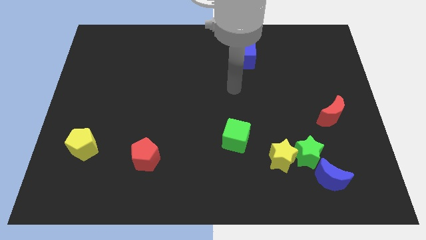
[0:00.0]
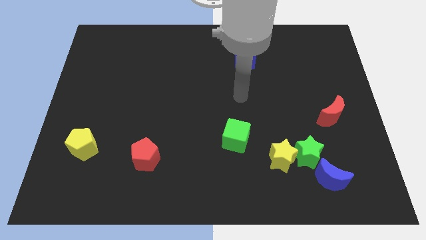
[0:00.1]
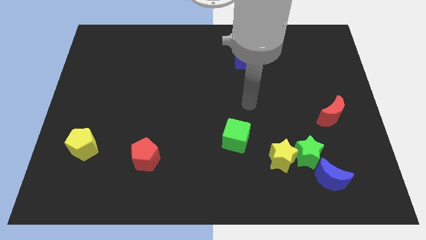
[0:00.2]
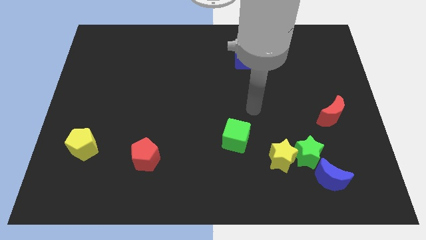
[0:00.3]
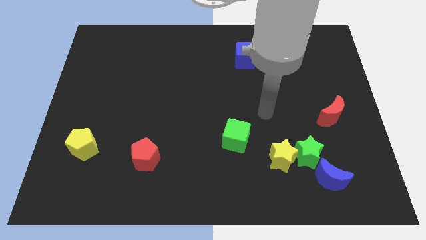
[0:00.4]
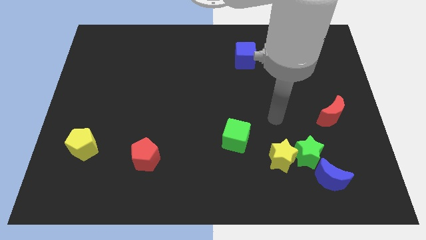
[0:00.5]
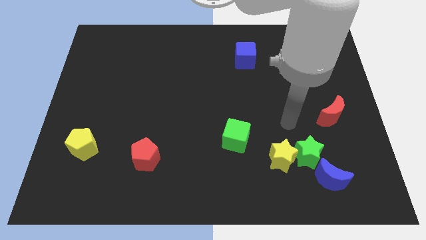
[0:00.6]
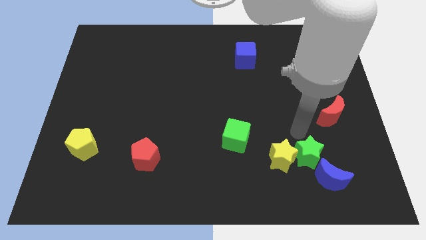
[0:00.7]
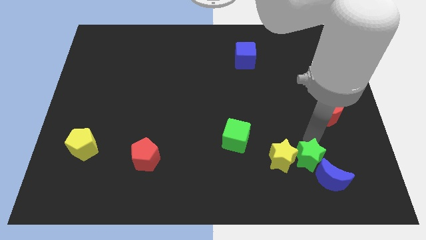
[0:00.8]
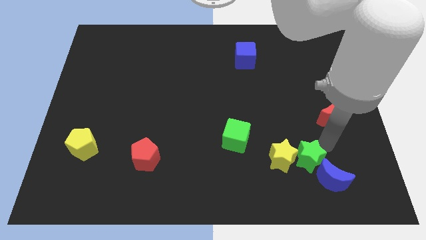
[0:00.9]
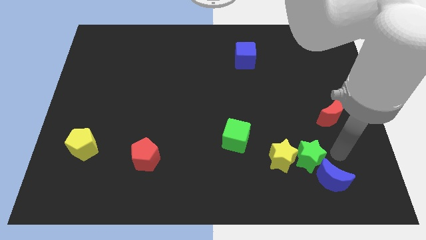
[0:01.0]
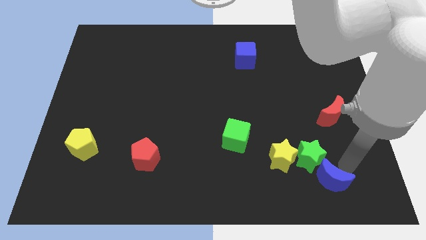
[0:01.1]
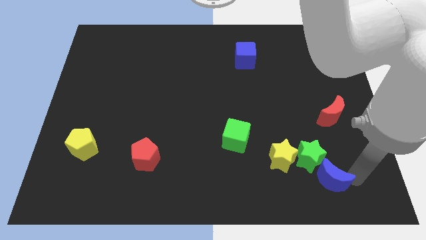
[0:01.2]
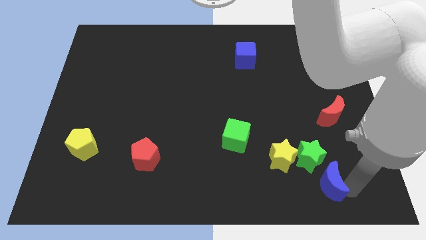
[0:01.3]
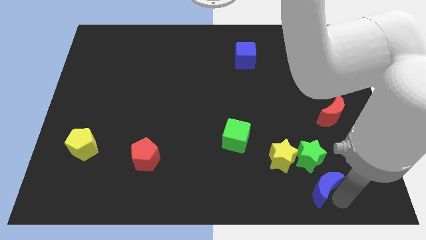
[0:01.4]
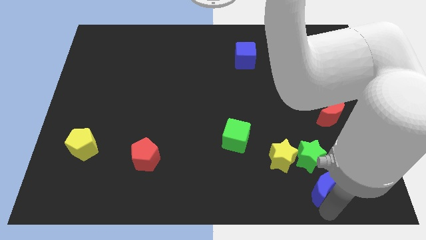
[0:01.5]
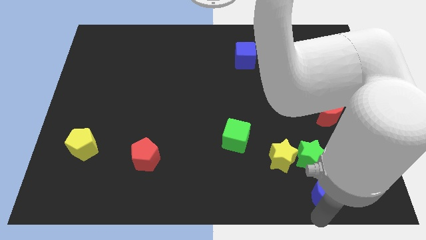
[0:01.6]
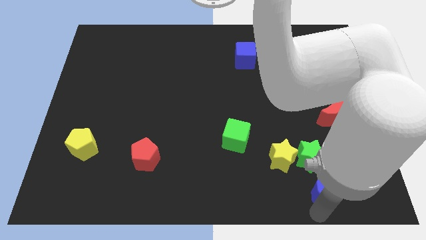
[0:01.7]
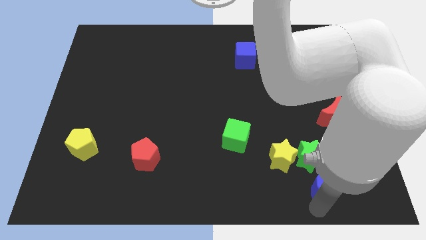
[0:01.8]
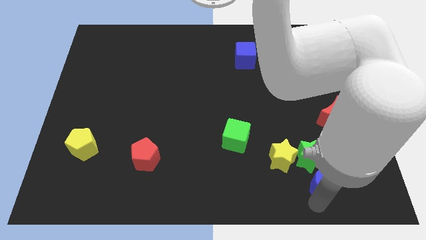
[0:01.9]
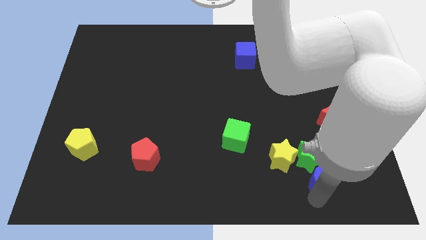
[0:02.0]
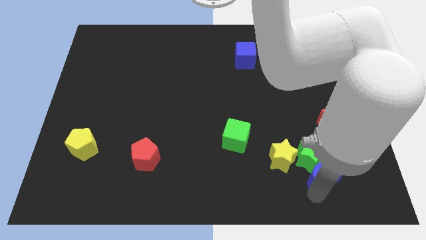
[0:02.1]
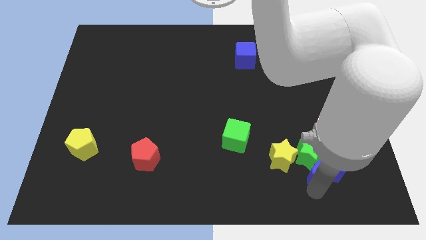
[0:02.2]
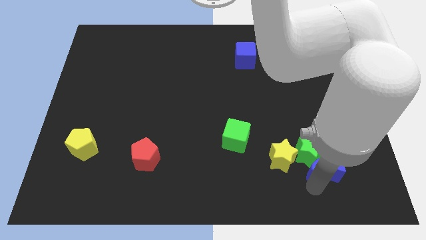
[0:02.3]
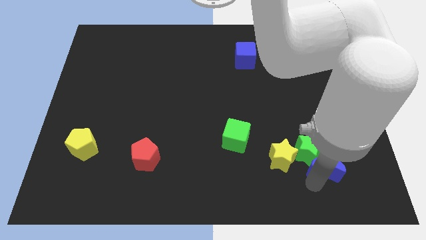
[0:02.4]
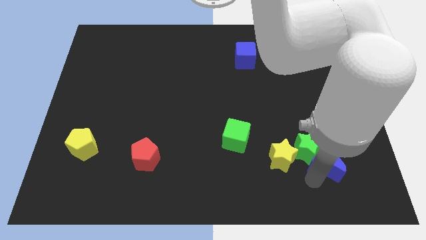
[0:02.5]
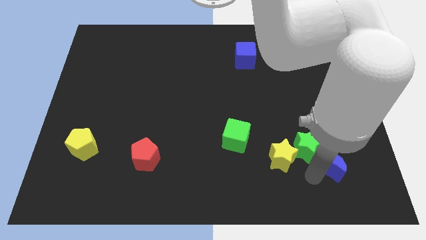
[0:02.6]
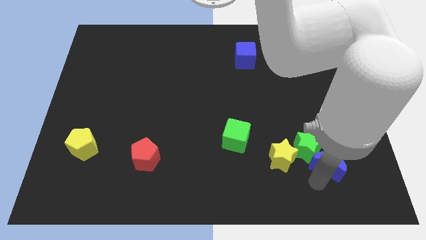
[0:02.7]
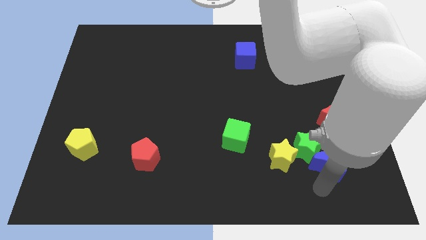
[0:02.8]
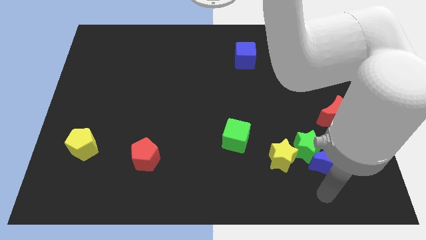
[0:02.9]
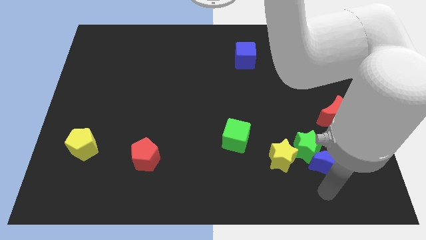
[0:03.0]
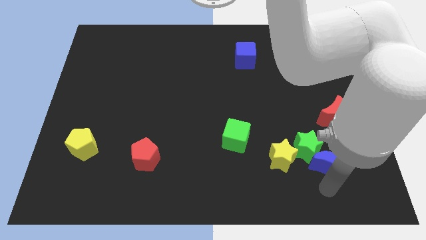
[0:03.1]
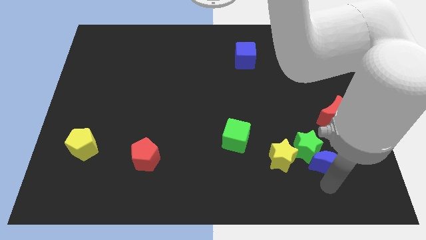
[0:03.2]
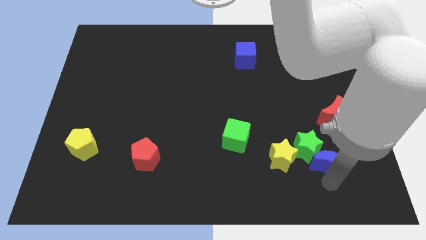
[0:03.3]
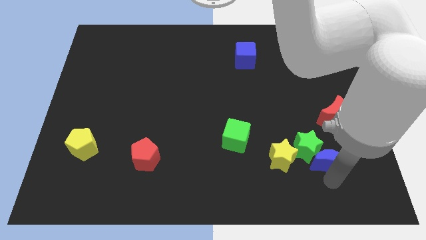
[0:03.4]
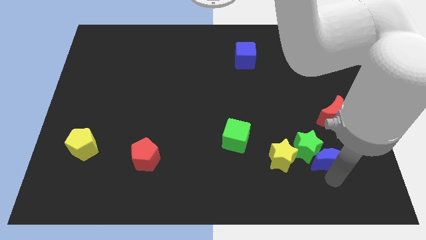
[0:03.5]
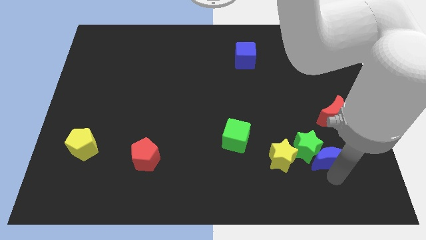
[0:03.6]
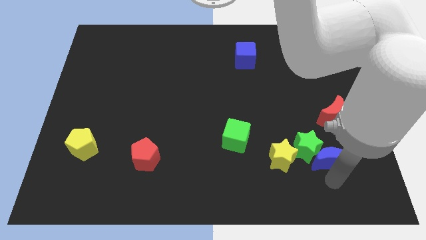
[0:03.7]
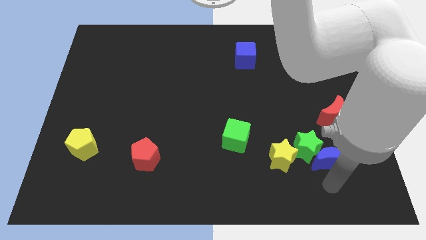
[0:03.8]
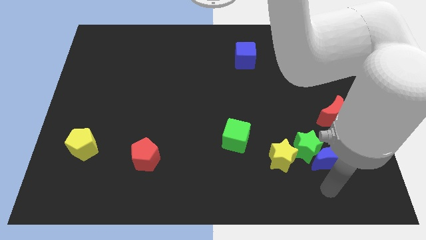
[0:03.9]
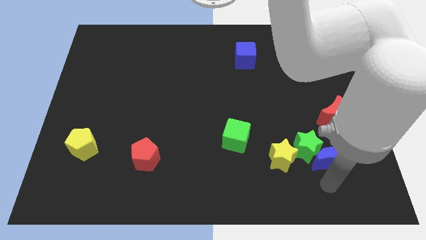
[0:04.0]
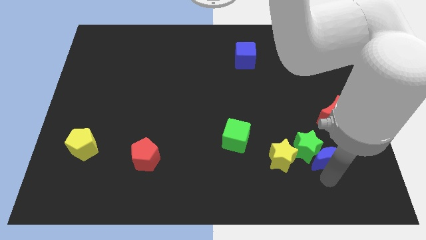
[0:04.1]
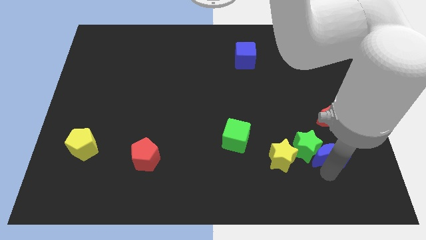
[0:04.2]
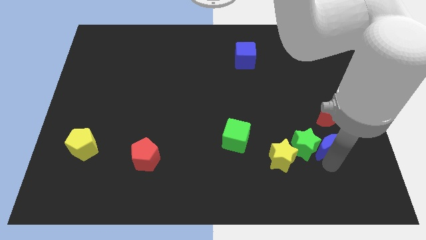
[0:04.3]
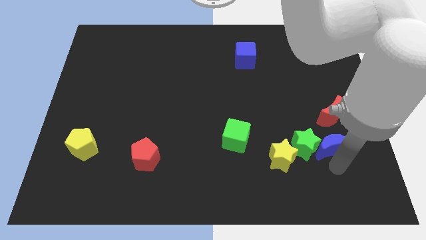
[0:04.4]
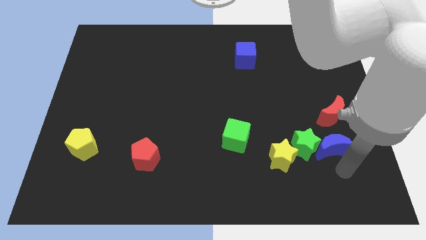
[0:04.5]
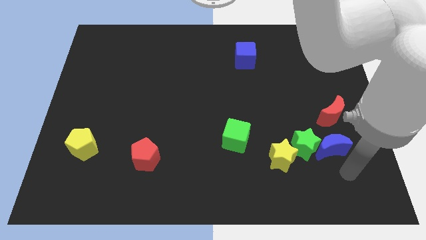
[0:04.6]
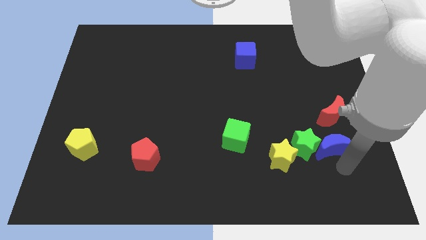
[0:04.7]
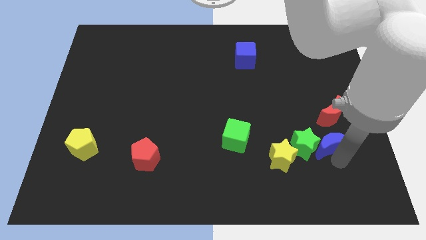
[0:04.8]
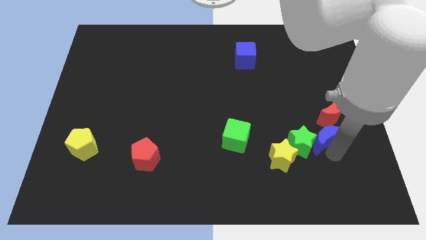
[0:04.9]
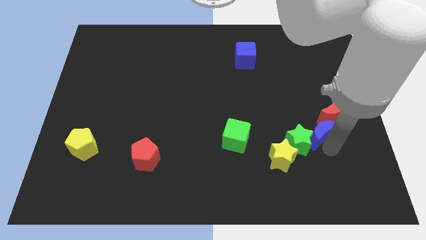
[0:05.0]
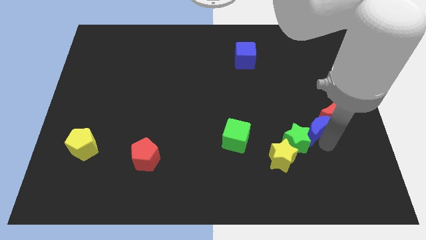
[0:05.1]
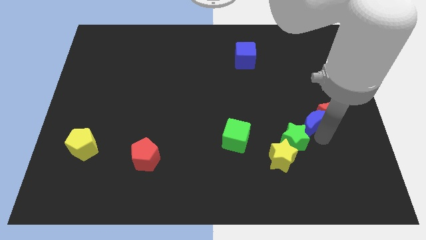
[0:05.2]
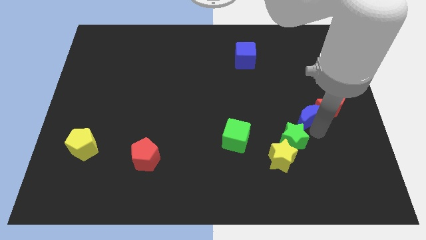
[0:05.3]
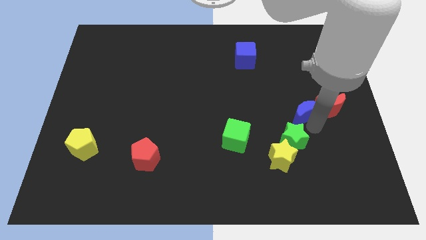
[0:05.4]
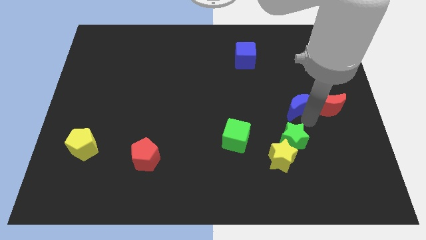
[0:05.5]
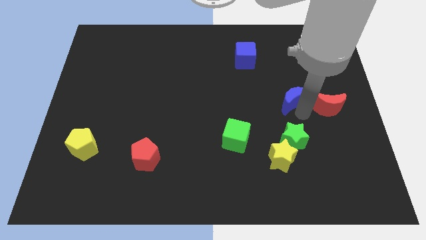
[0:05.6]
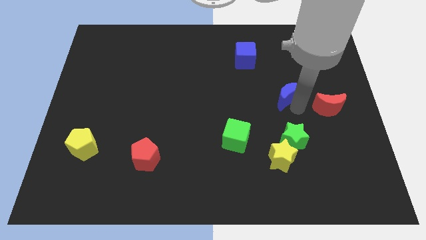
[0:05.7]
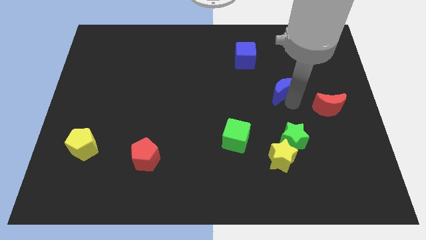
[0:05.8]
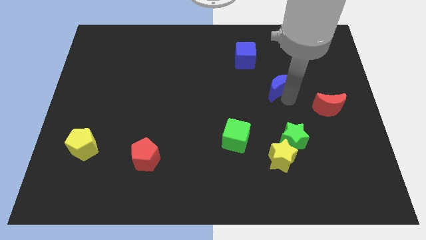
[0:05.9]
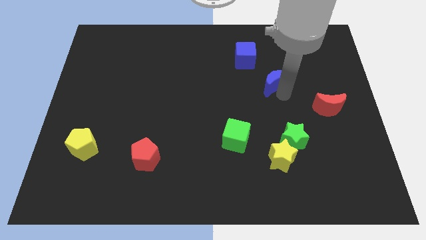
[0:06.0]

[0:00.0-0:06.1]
push the blue moon diagonally down and to the right of the blue cube

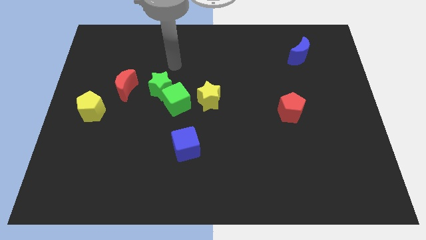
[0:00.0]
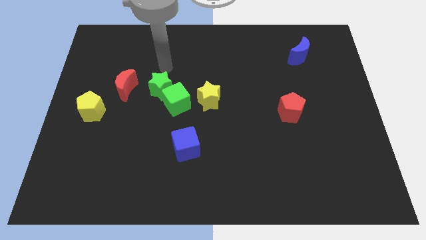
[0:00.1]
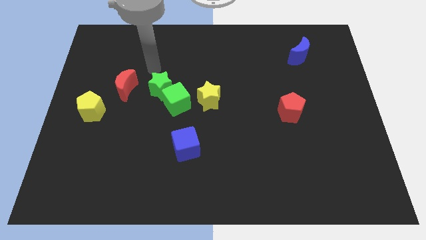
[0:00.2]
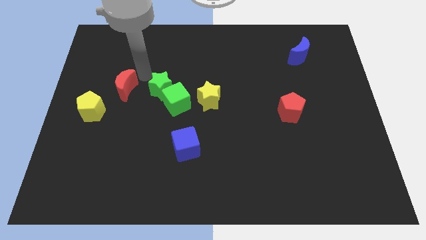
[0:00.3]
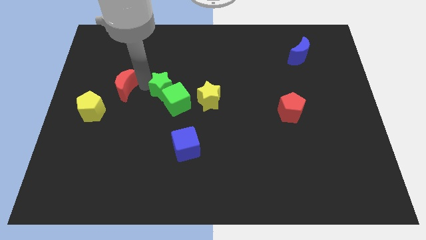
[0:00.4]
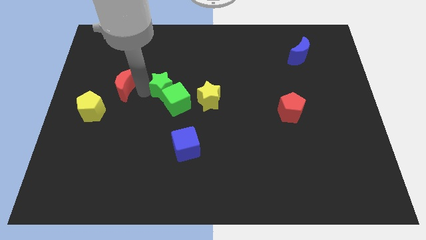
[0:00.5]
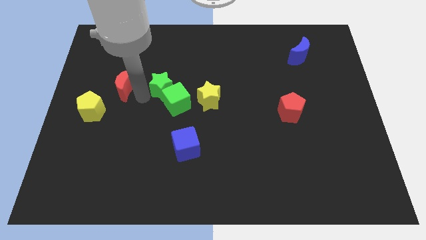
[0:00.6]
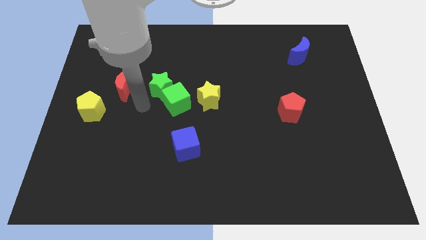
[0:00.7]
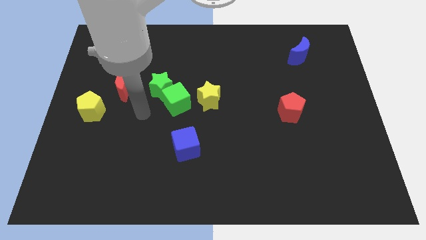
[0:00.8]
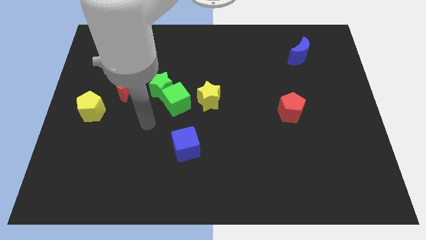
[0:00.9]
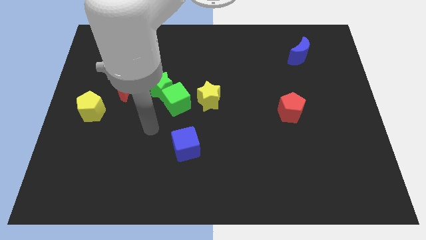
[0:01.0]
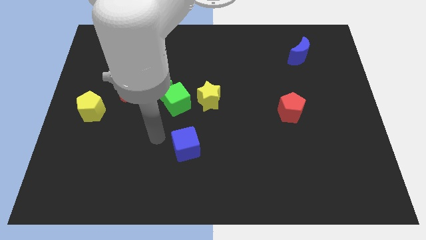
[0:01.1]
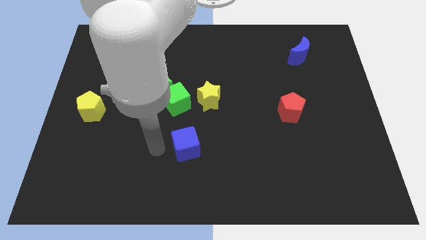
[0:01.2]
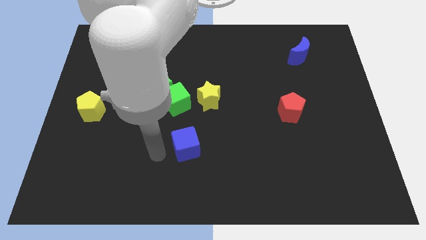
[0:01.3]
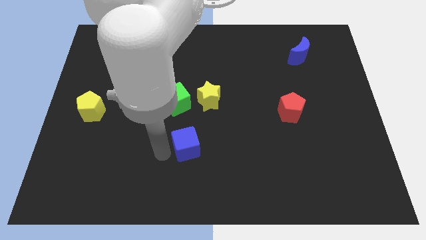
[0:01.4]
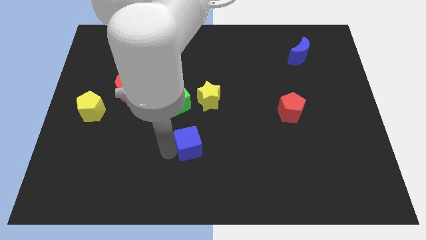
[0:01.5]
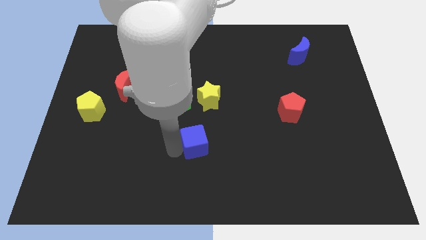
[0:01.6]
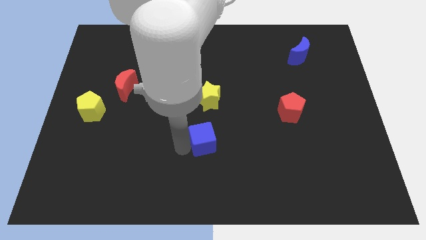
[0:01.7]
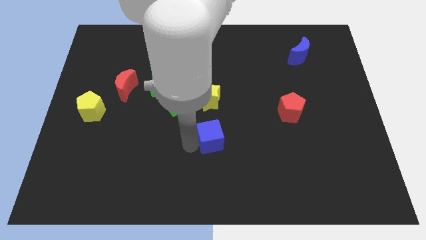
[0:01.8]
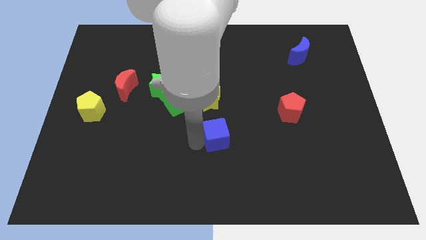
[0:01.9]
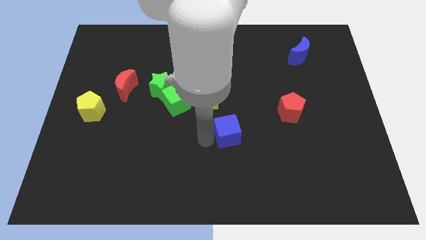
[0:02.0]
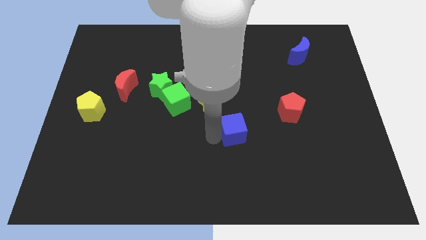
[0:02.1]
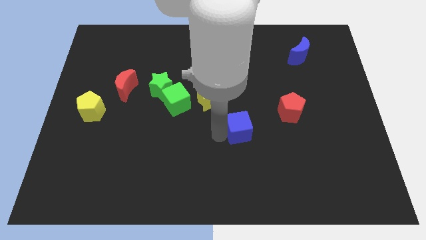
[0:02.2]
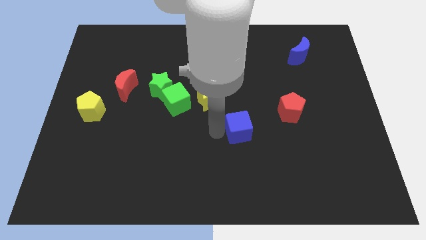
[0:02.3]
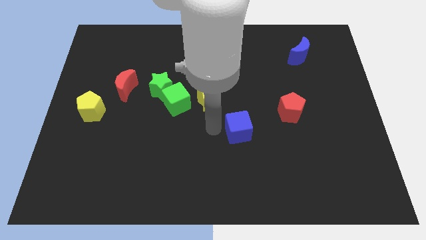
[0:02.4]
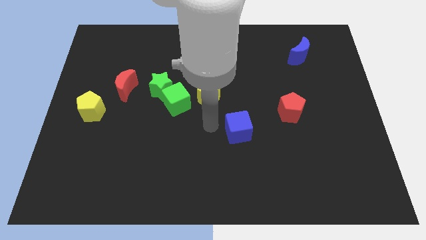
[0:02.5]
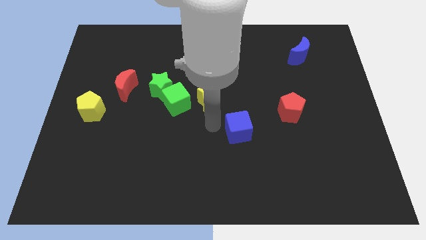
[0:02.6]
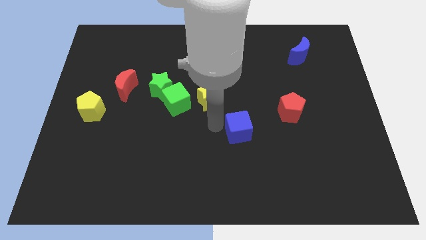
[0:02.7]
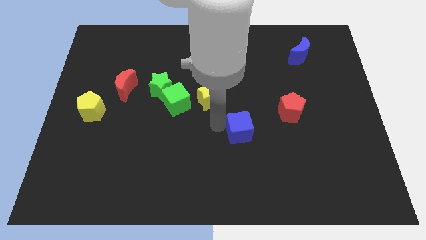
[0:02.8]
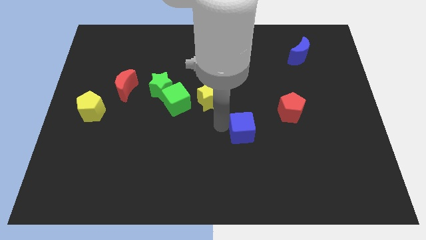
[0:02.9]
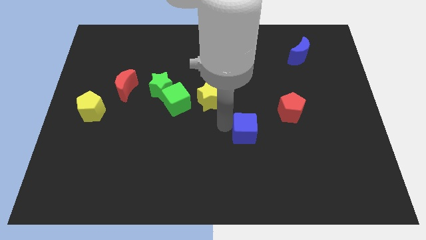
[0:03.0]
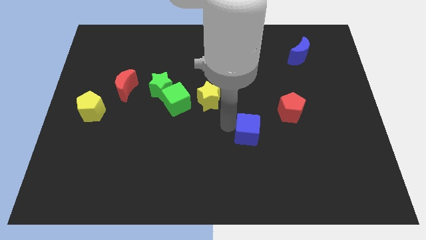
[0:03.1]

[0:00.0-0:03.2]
push the blue cube to the bottom left of the red pentagon
